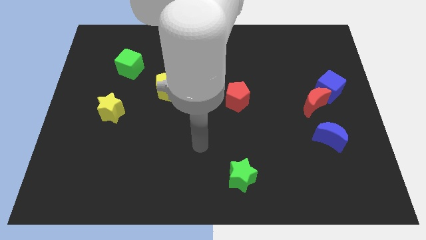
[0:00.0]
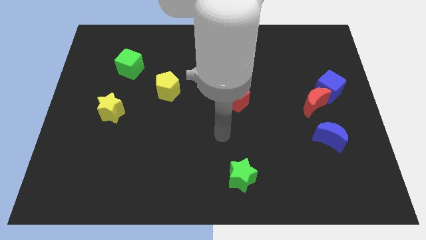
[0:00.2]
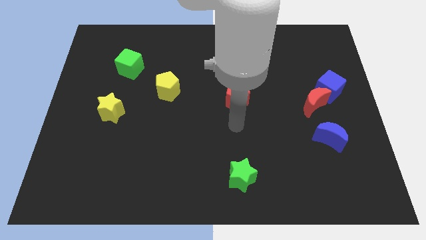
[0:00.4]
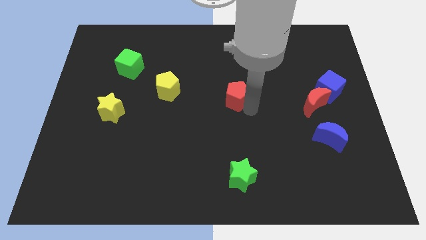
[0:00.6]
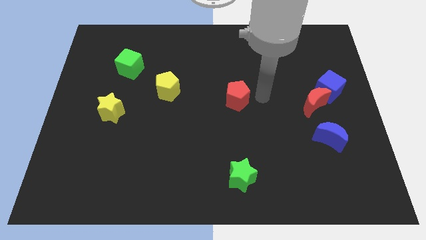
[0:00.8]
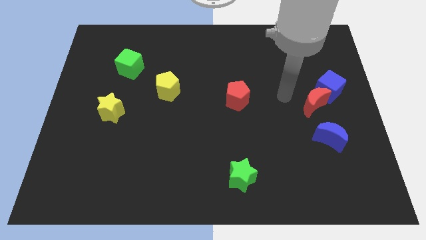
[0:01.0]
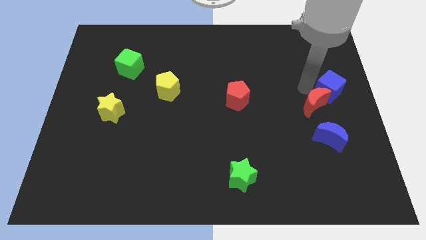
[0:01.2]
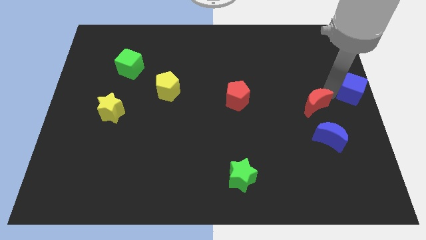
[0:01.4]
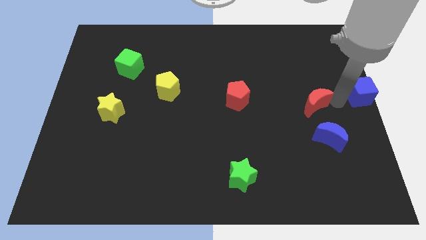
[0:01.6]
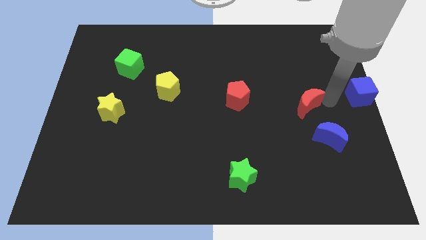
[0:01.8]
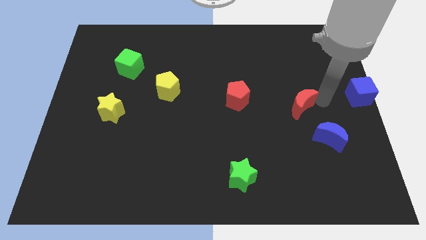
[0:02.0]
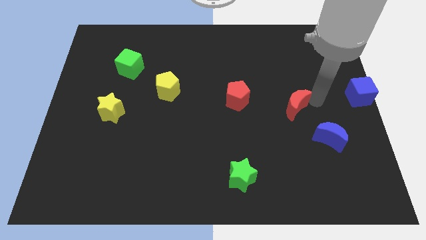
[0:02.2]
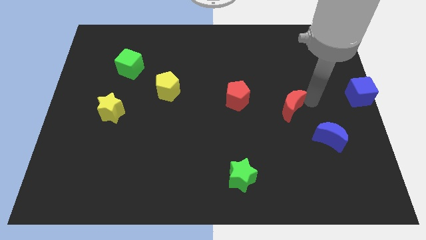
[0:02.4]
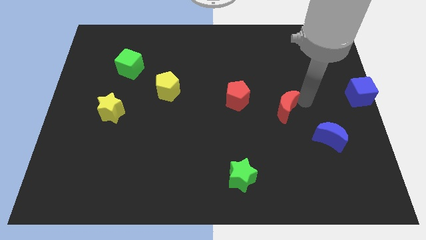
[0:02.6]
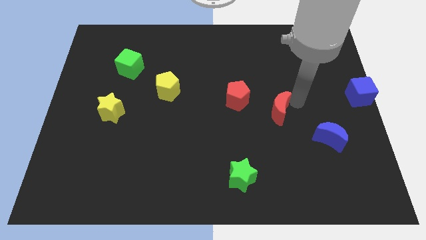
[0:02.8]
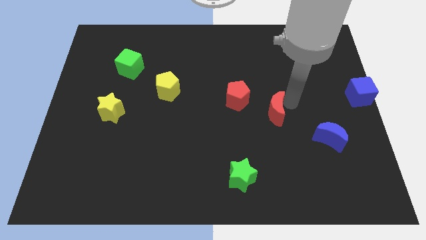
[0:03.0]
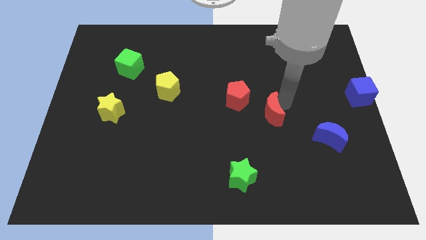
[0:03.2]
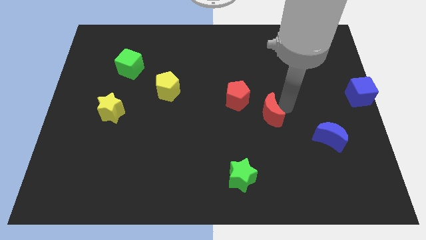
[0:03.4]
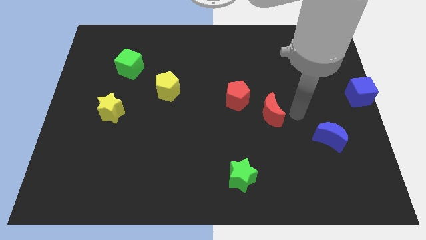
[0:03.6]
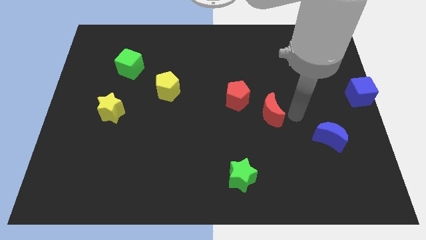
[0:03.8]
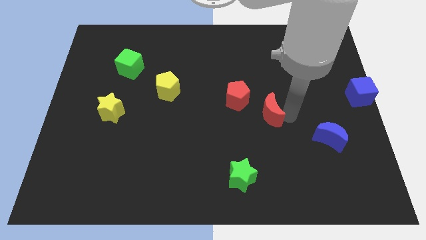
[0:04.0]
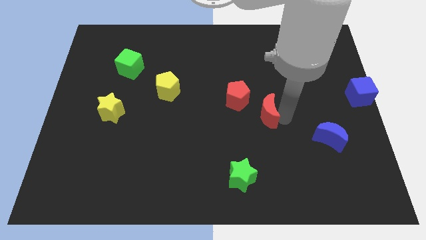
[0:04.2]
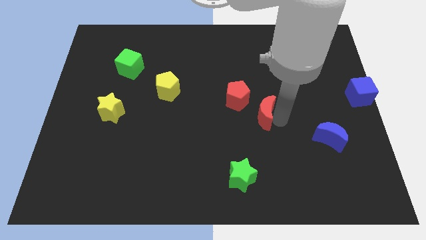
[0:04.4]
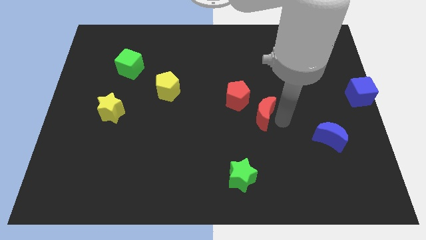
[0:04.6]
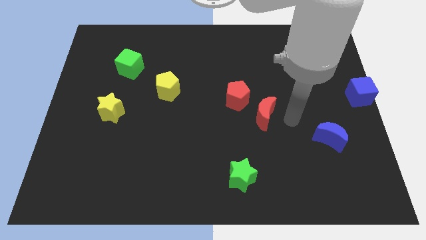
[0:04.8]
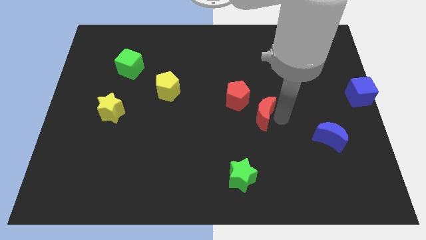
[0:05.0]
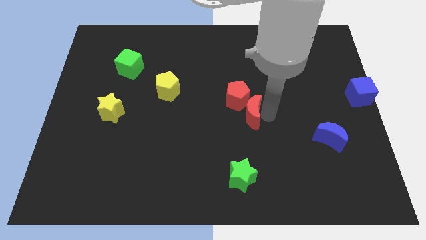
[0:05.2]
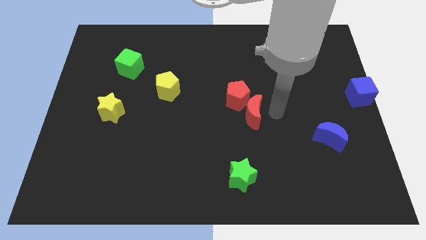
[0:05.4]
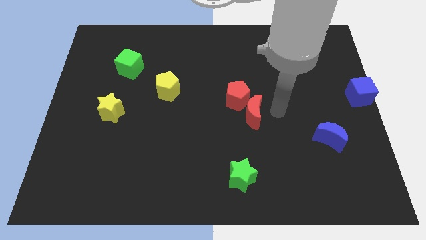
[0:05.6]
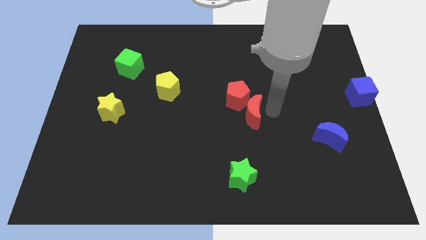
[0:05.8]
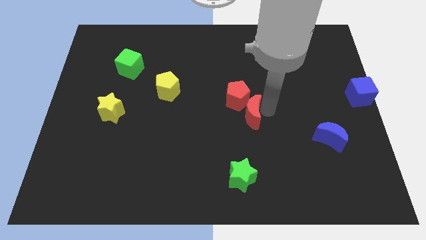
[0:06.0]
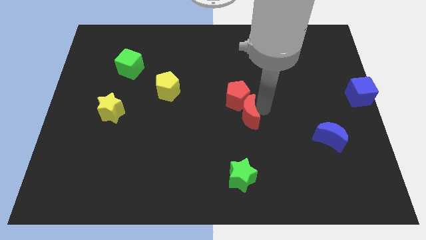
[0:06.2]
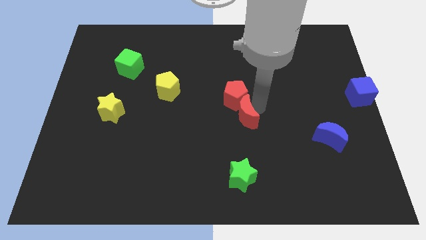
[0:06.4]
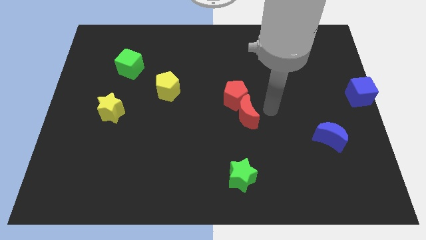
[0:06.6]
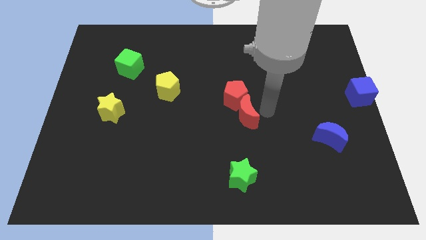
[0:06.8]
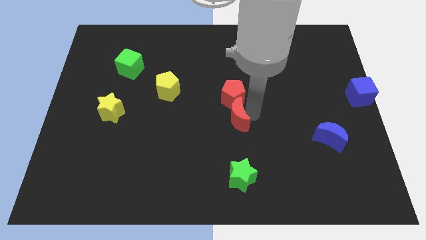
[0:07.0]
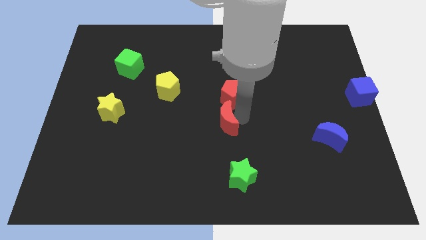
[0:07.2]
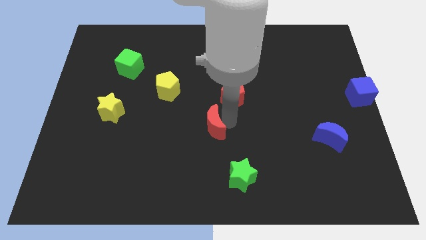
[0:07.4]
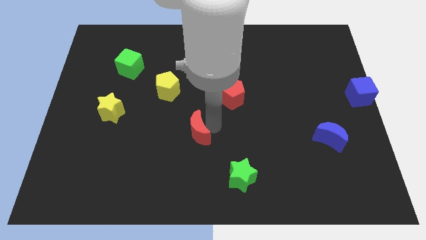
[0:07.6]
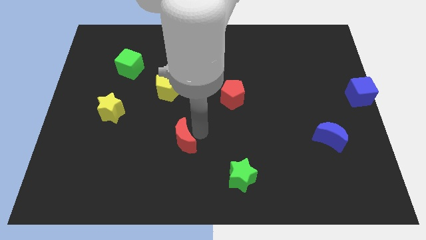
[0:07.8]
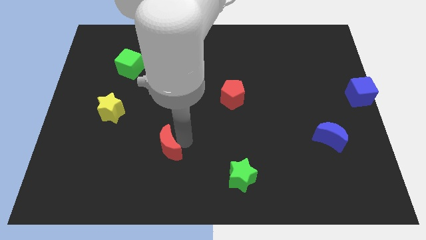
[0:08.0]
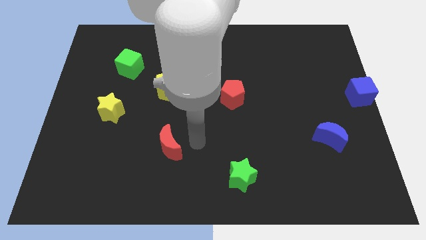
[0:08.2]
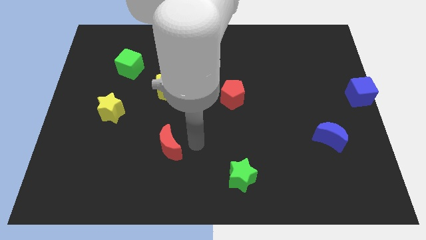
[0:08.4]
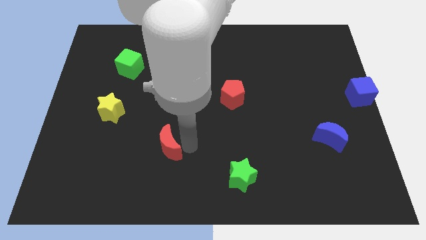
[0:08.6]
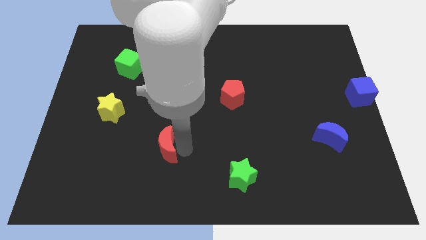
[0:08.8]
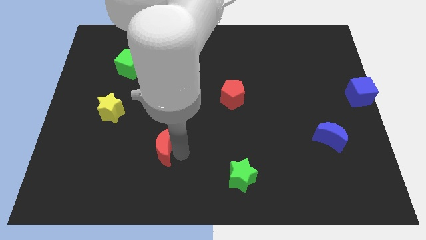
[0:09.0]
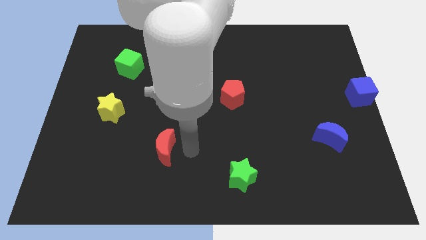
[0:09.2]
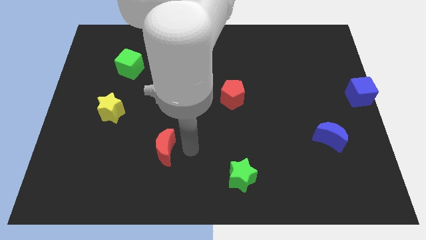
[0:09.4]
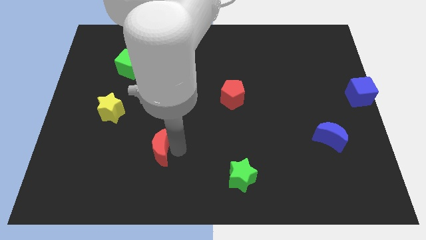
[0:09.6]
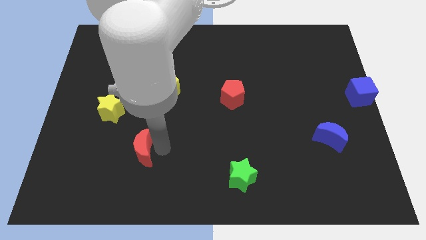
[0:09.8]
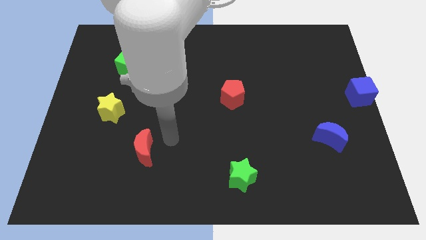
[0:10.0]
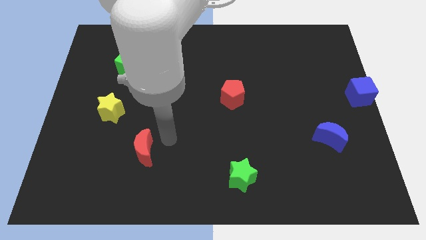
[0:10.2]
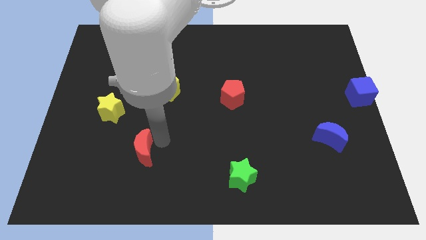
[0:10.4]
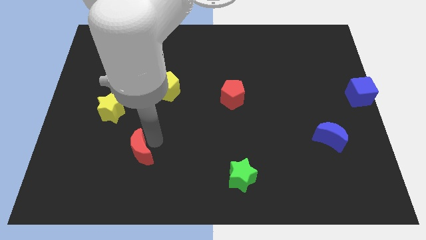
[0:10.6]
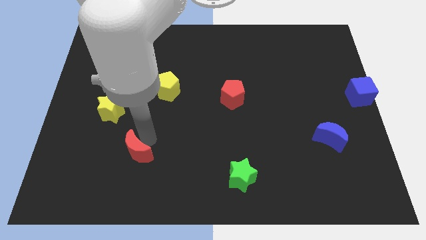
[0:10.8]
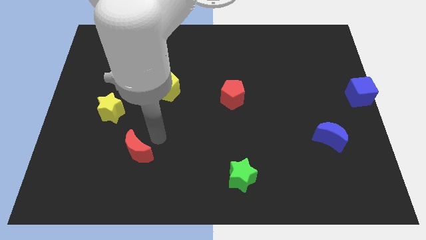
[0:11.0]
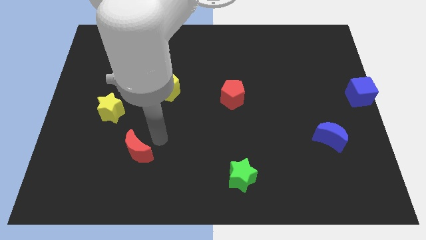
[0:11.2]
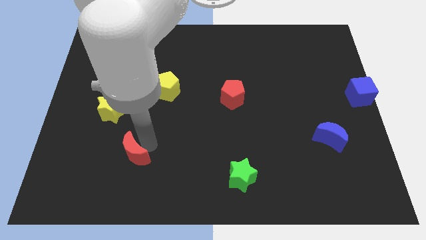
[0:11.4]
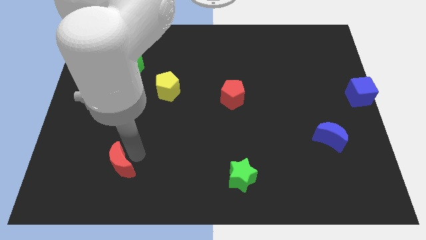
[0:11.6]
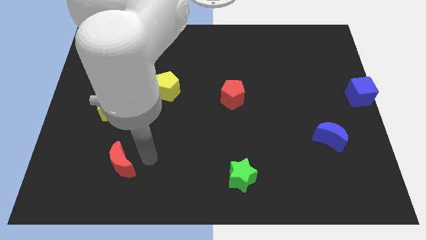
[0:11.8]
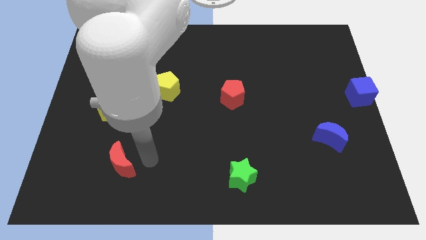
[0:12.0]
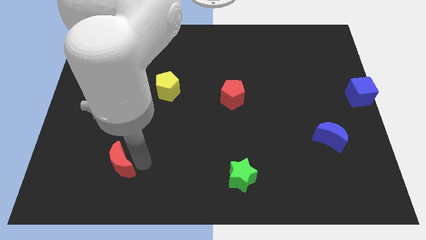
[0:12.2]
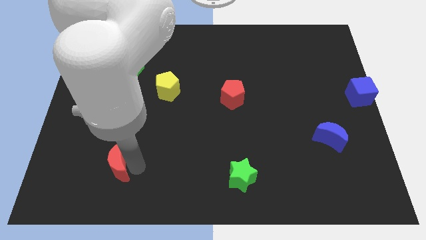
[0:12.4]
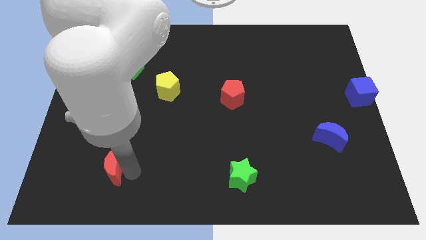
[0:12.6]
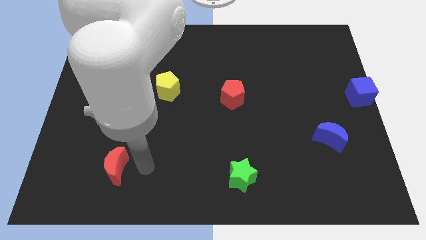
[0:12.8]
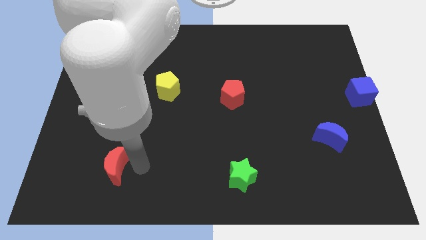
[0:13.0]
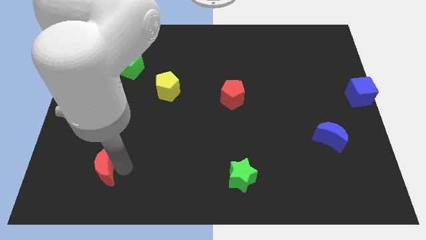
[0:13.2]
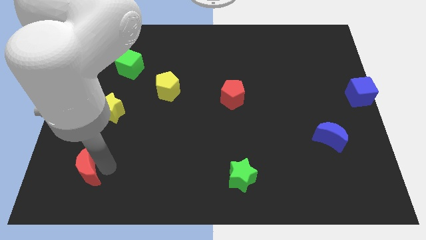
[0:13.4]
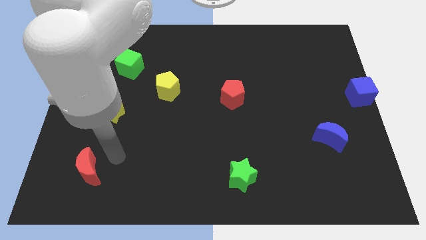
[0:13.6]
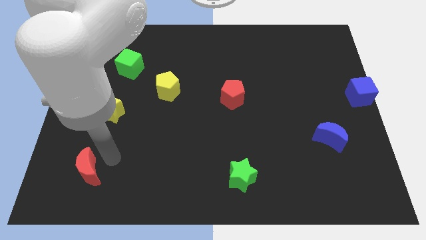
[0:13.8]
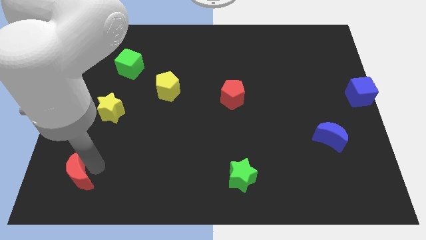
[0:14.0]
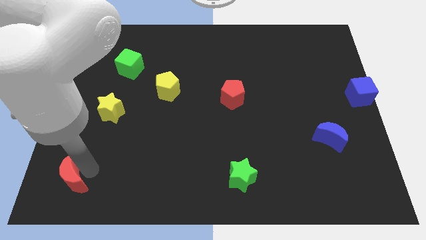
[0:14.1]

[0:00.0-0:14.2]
slide the red moon to the bottom left
